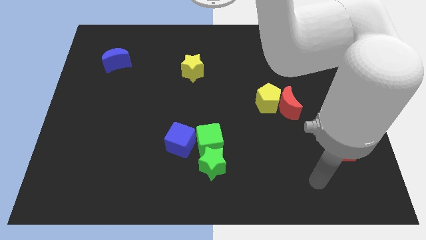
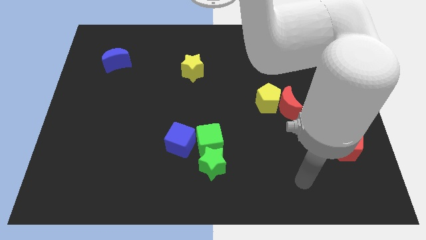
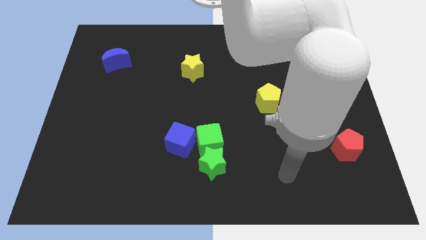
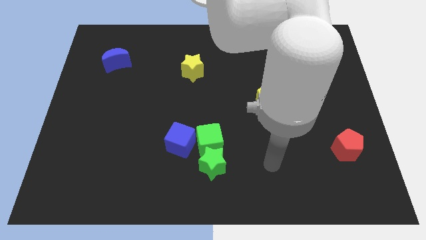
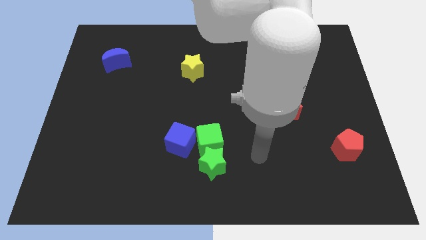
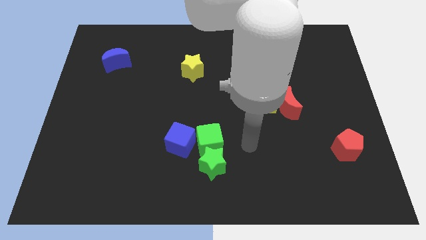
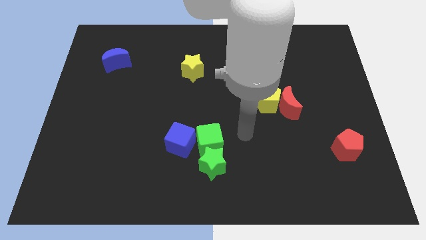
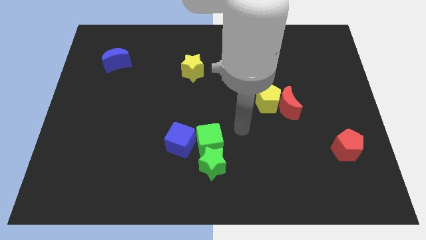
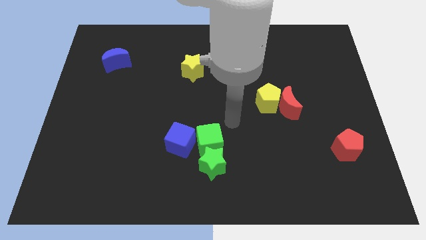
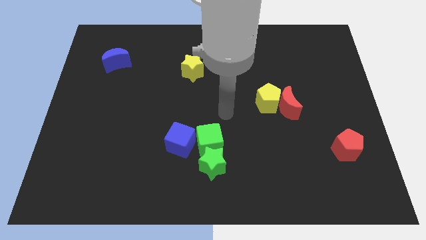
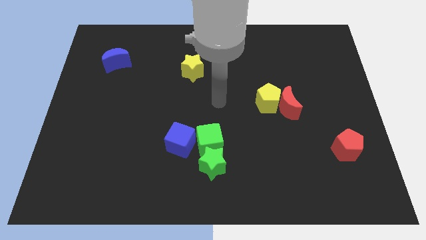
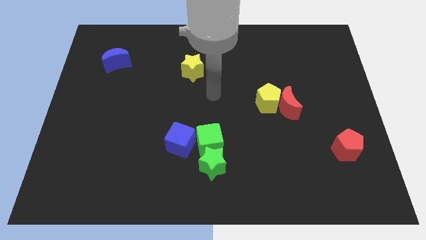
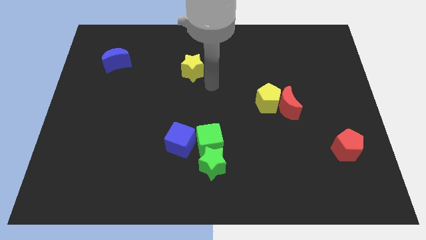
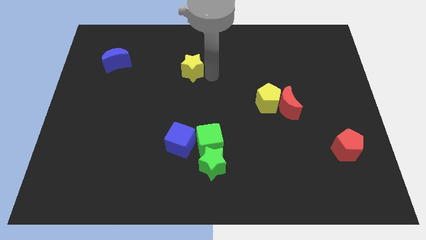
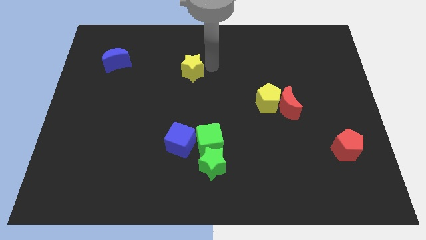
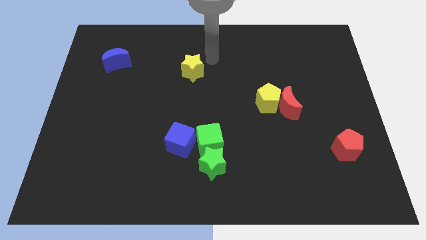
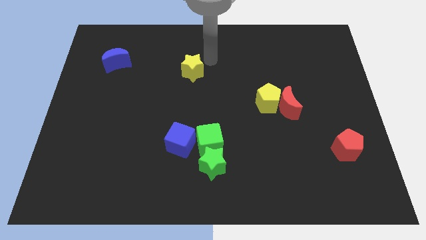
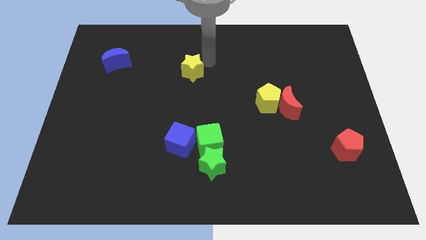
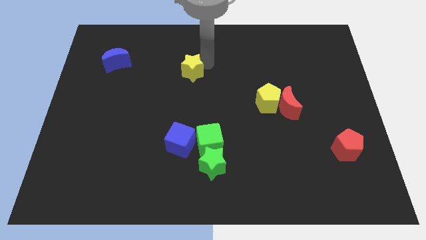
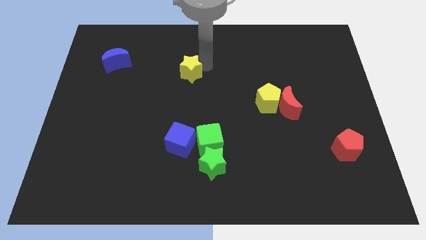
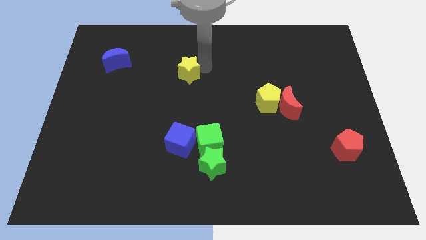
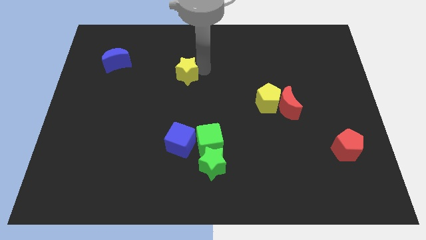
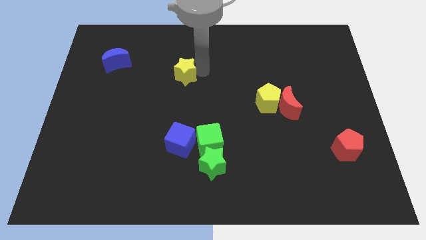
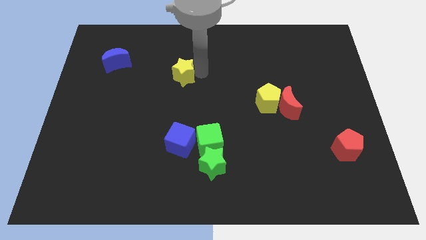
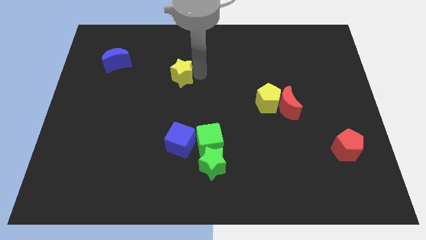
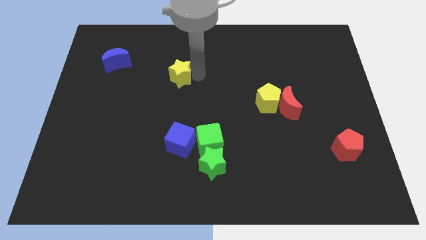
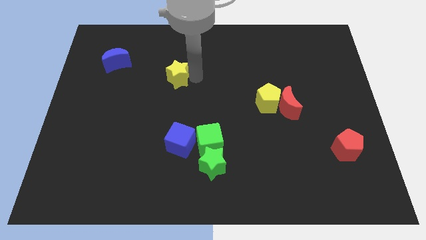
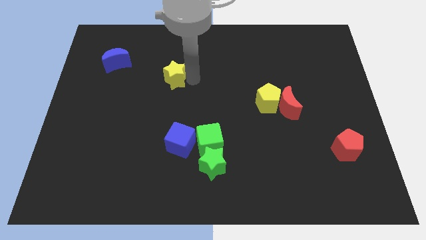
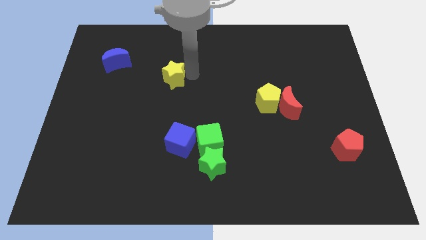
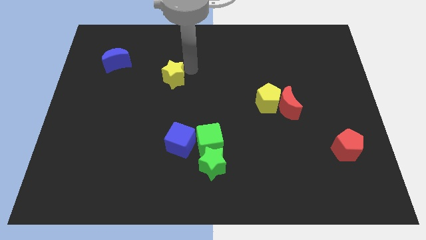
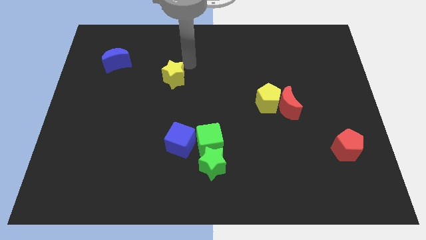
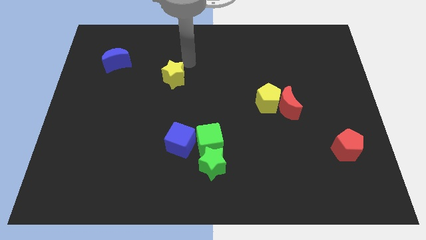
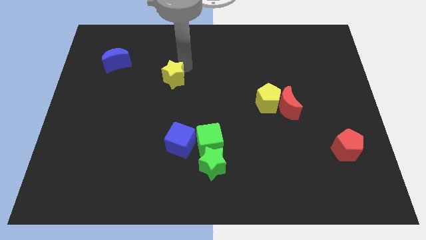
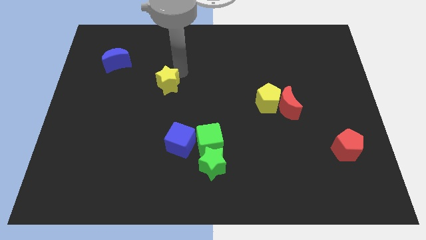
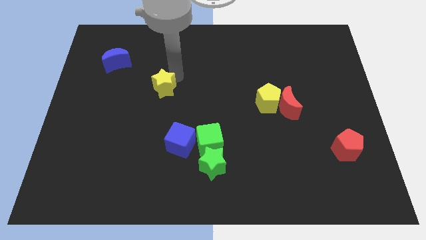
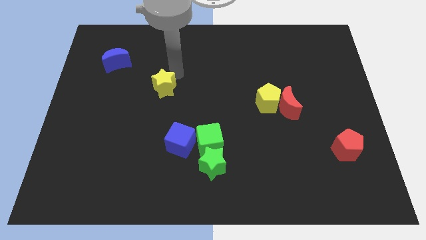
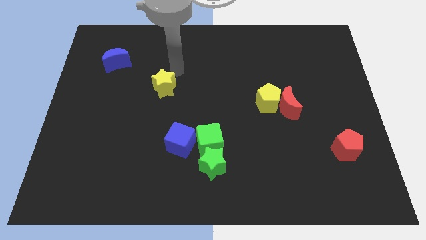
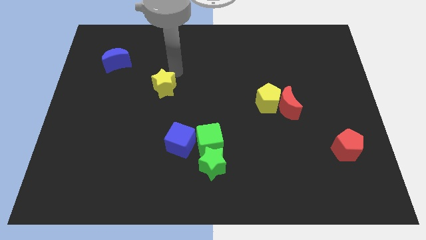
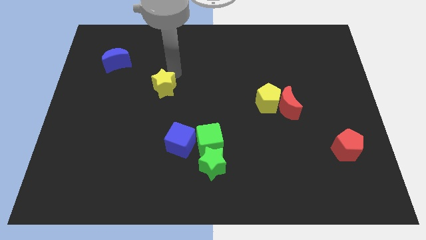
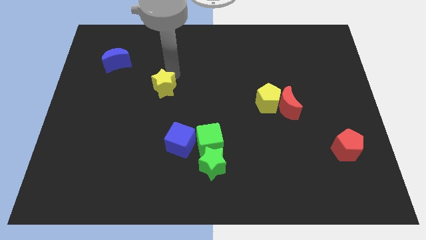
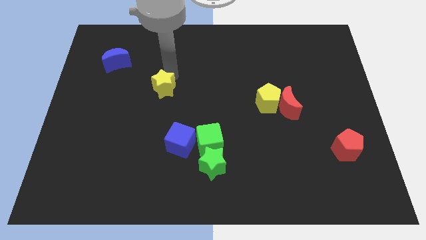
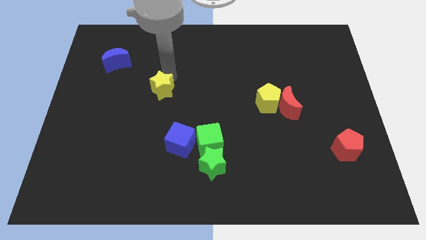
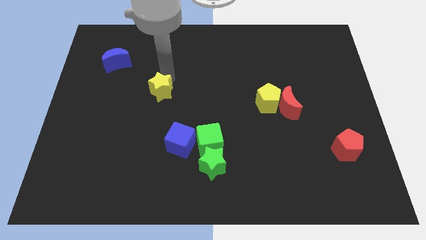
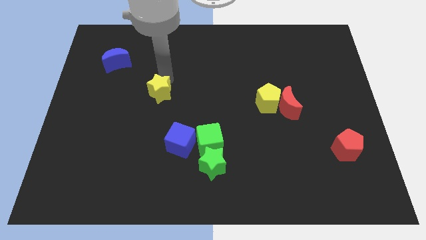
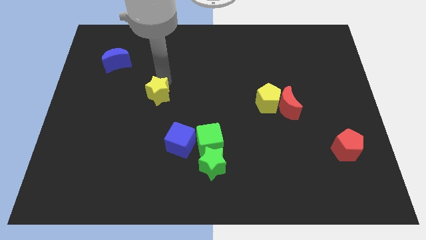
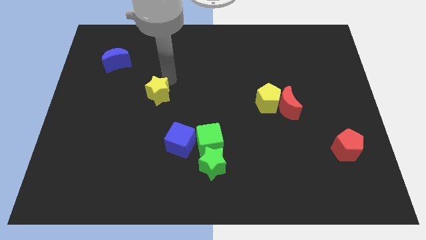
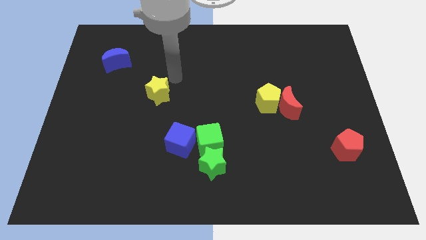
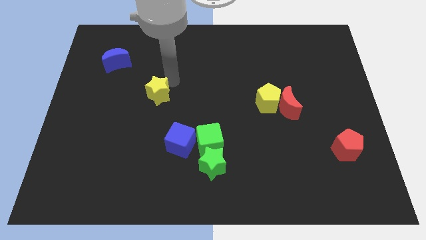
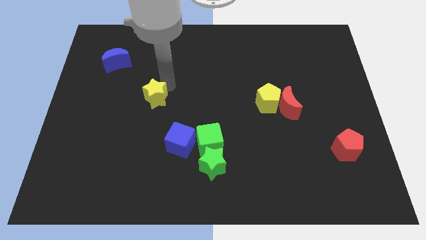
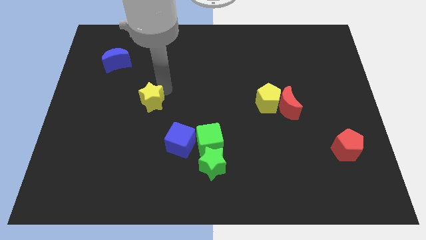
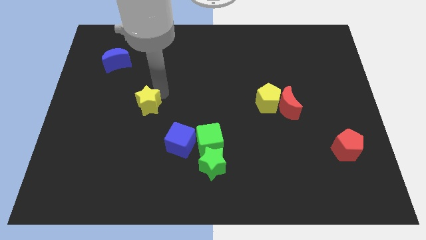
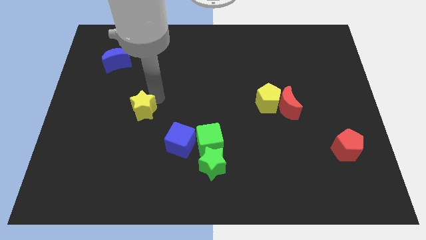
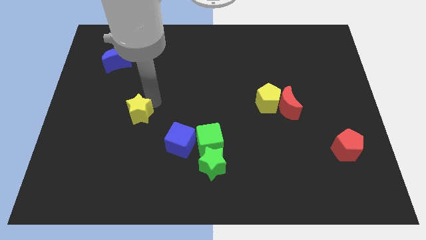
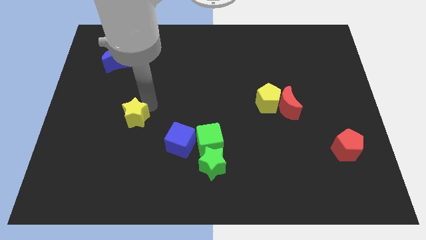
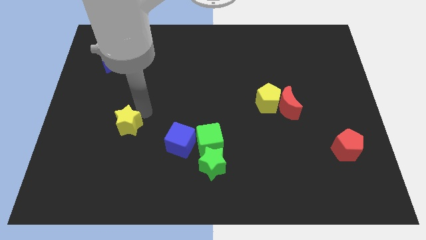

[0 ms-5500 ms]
push the yellow star downwards and to the left diagonally

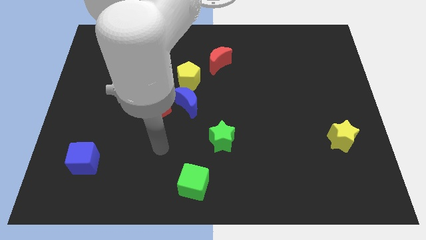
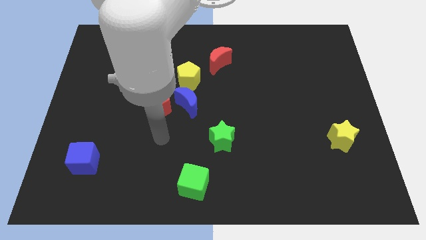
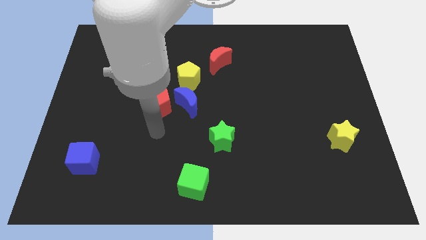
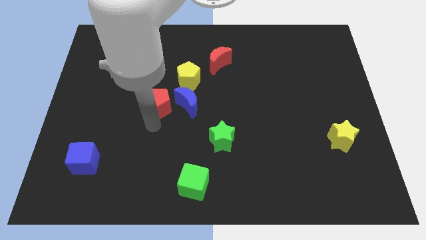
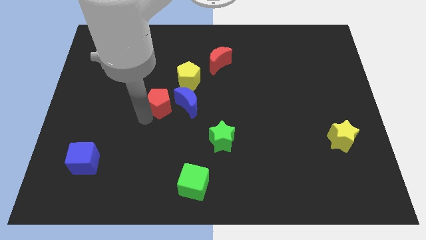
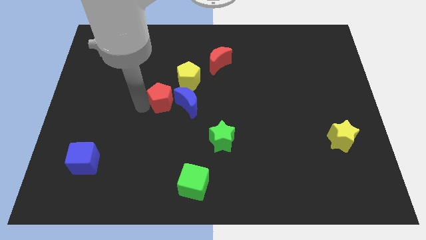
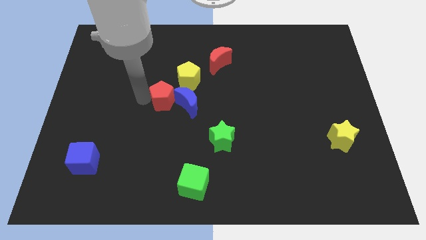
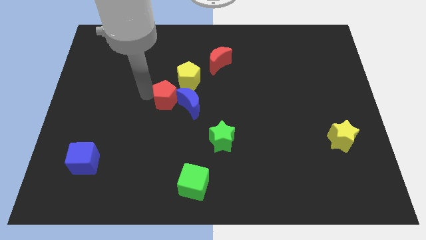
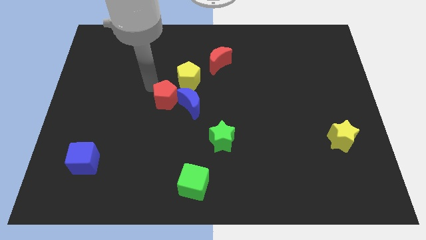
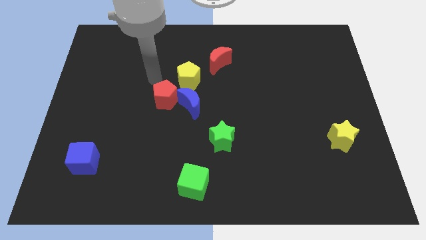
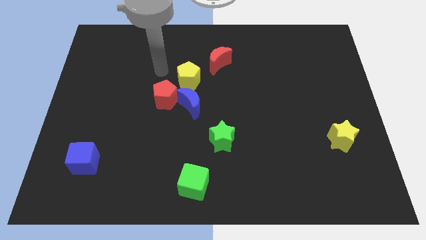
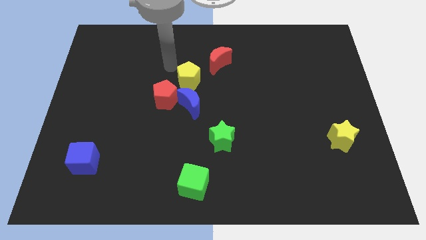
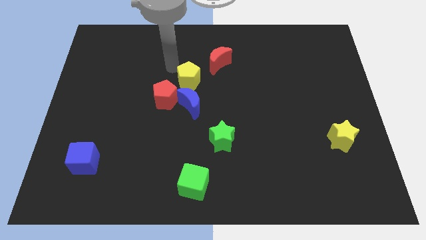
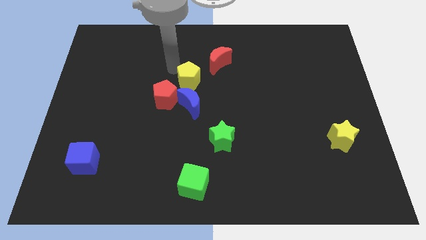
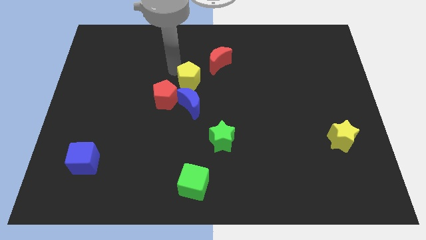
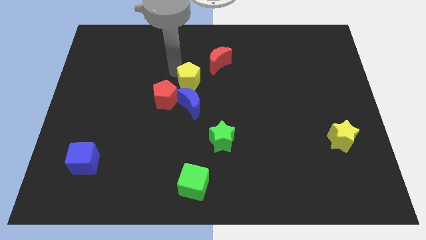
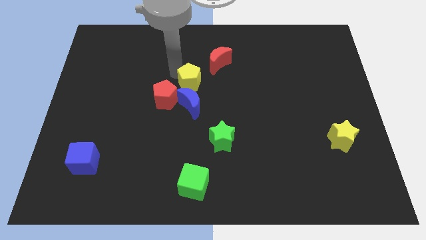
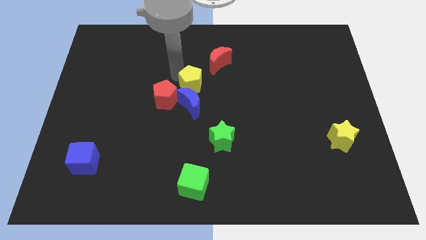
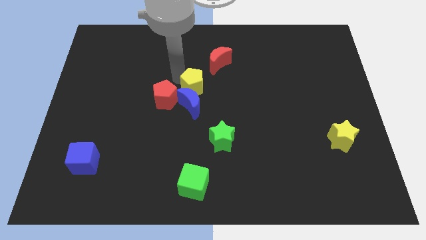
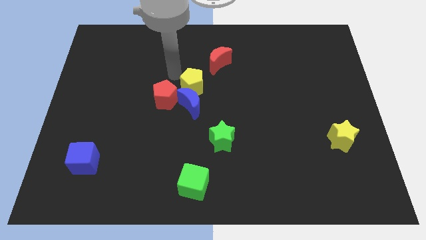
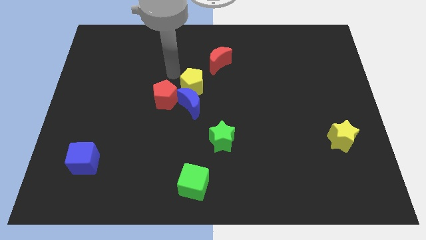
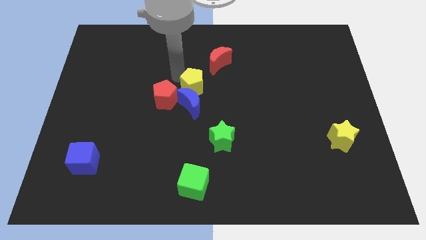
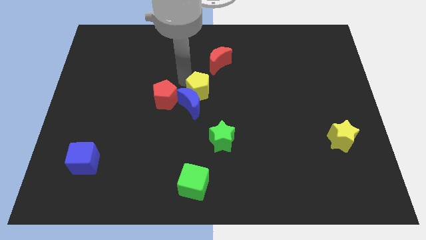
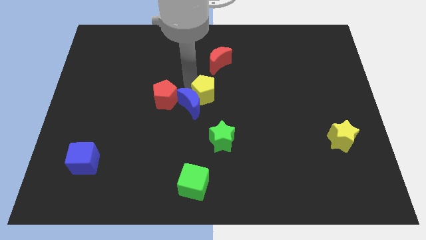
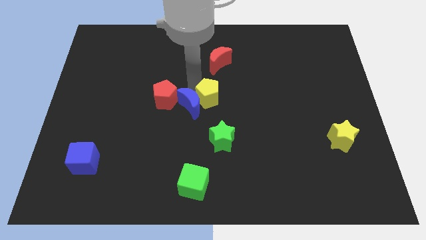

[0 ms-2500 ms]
slightly slide the yellow pentagon downwards and right

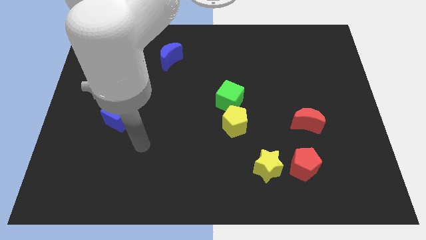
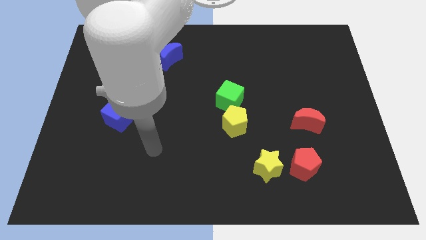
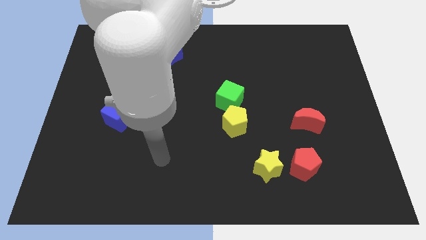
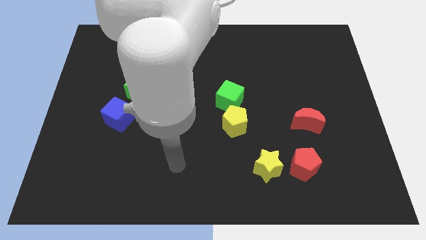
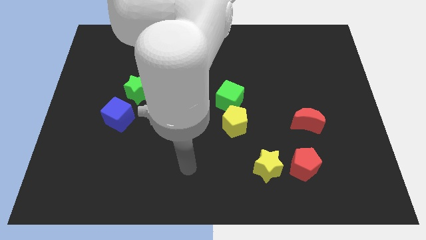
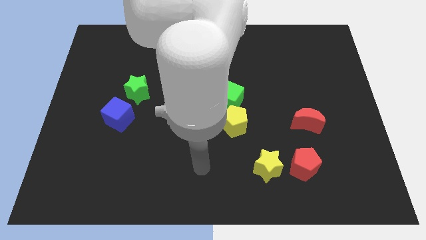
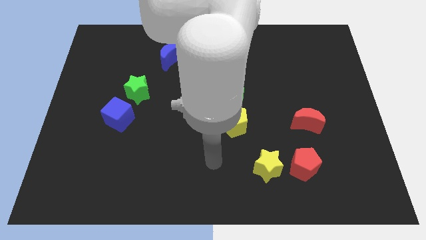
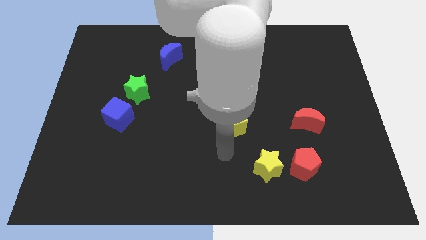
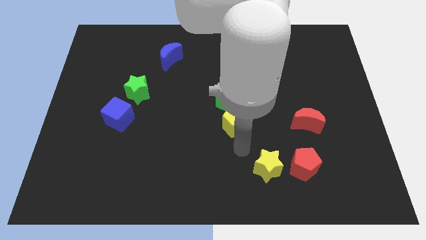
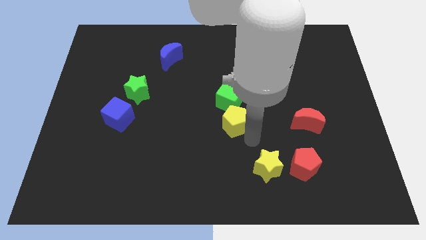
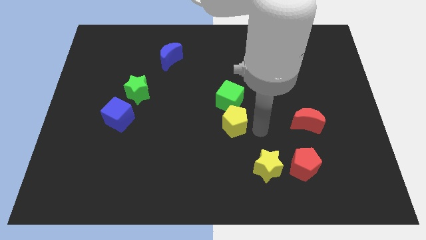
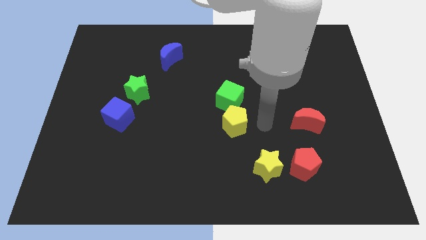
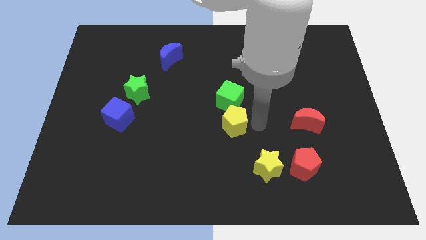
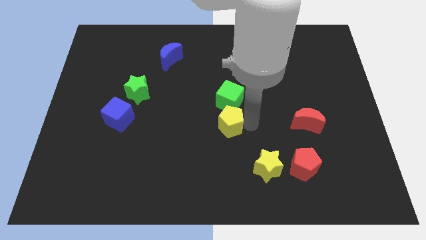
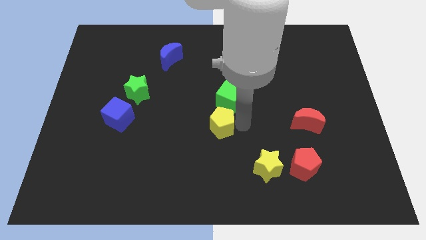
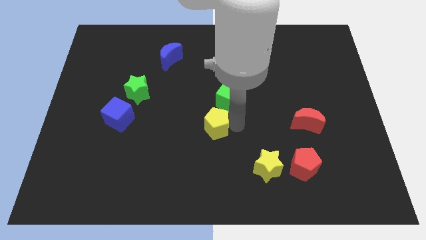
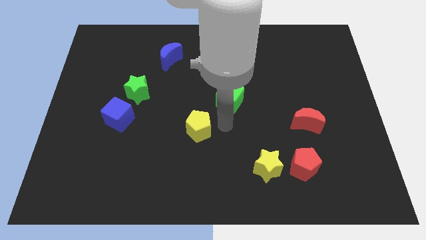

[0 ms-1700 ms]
push the yellow pentagon slightly to the left
